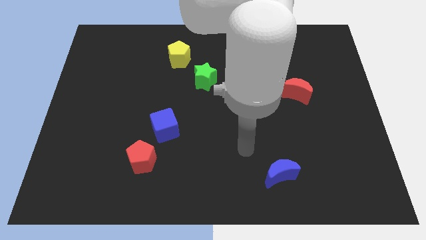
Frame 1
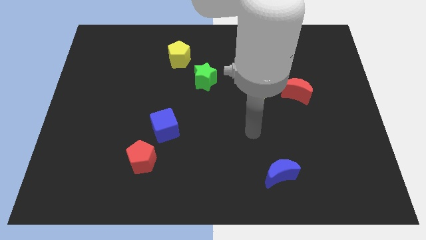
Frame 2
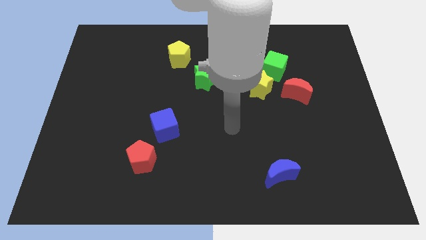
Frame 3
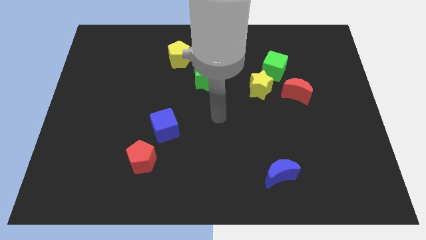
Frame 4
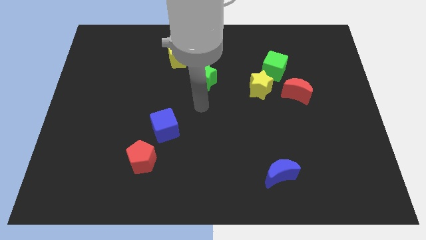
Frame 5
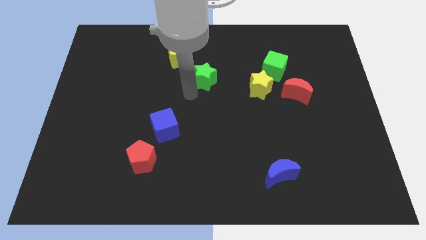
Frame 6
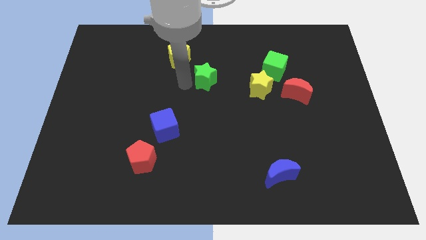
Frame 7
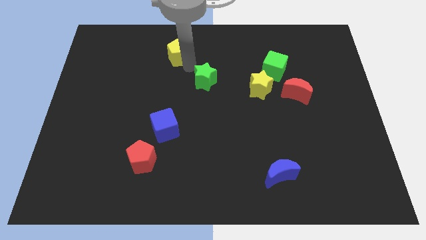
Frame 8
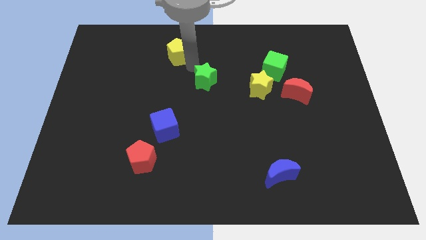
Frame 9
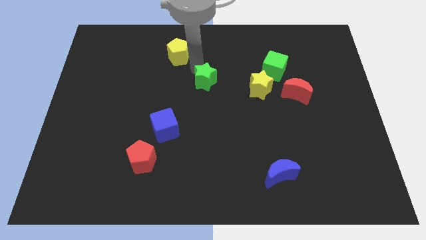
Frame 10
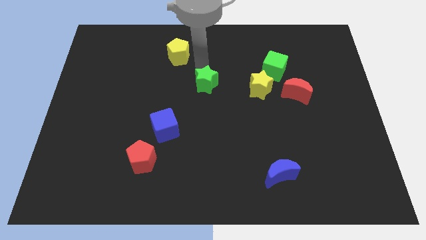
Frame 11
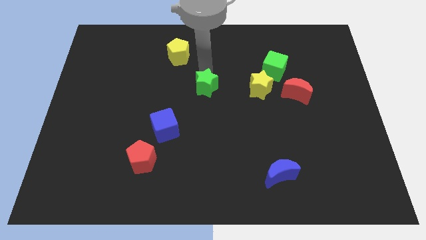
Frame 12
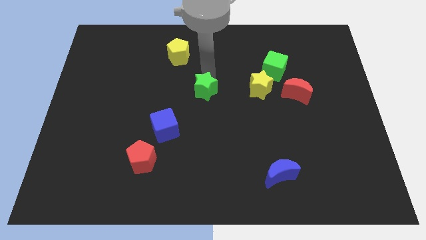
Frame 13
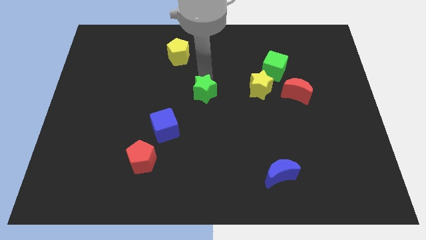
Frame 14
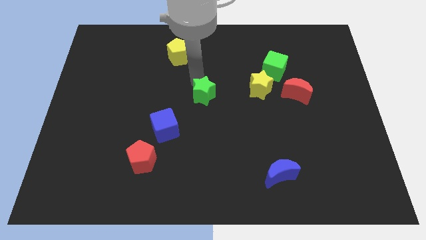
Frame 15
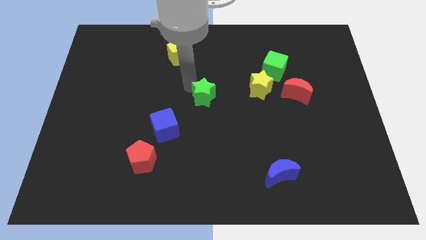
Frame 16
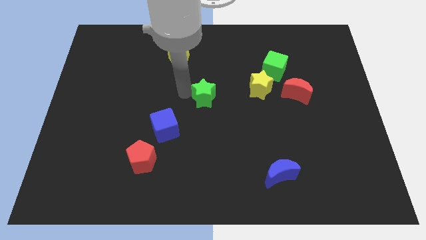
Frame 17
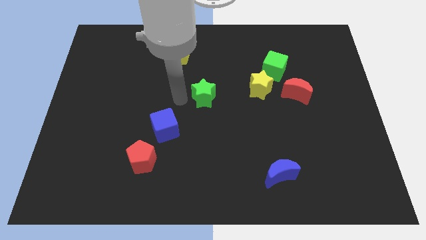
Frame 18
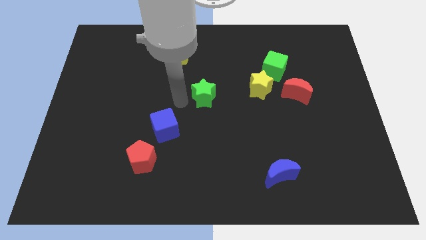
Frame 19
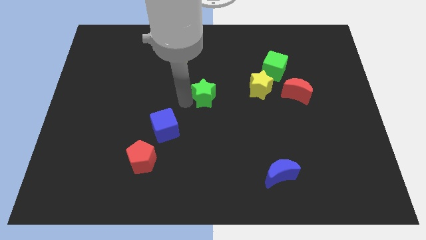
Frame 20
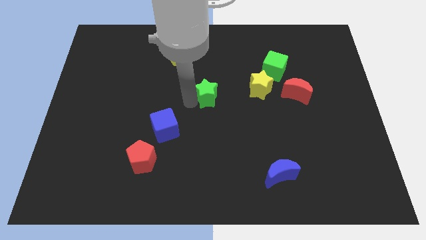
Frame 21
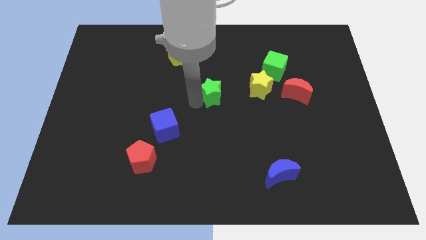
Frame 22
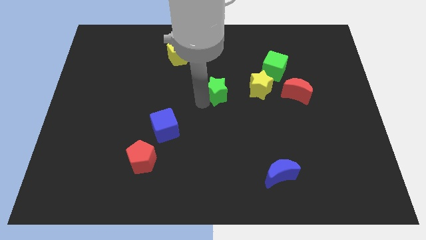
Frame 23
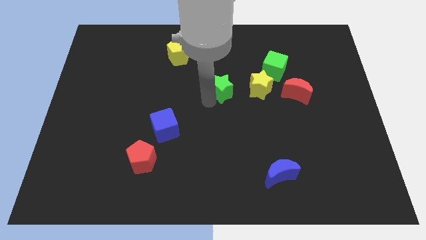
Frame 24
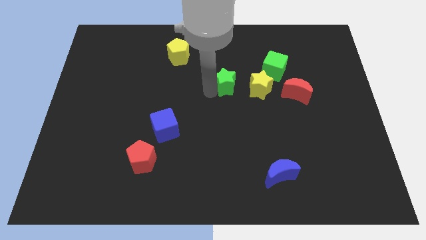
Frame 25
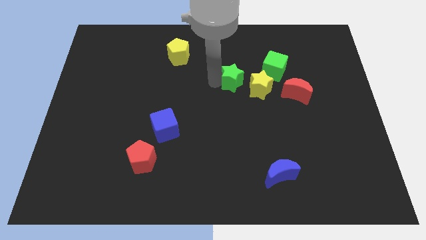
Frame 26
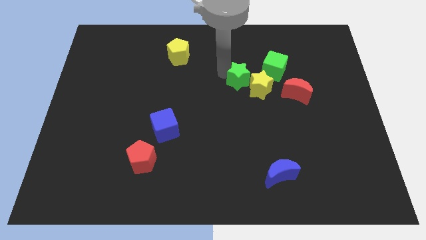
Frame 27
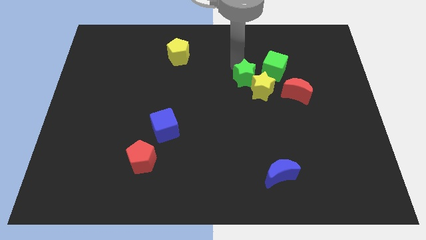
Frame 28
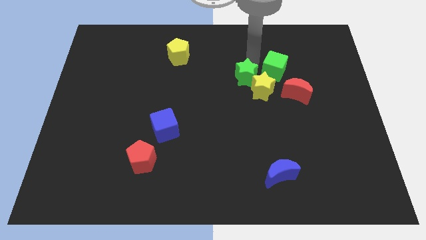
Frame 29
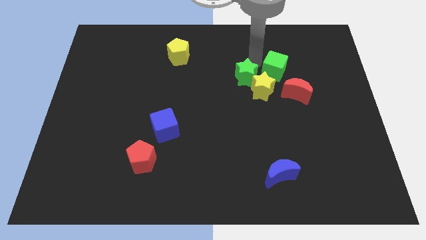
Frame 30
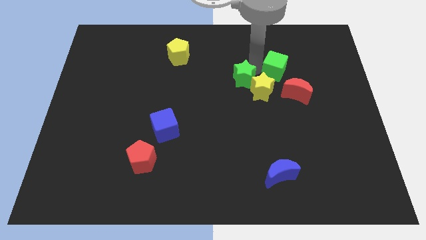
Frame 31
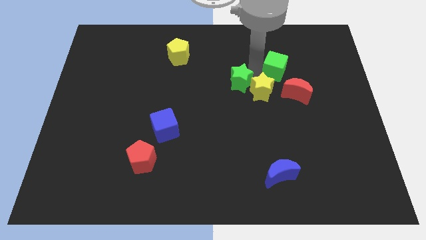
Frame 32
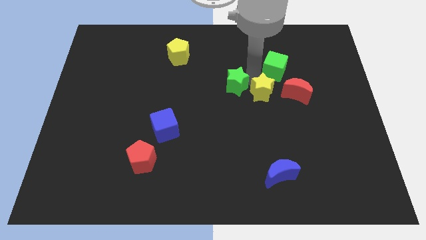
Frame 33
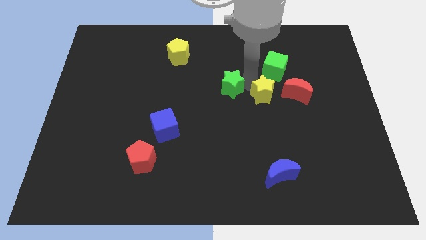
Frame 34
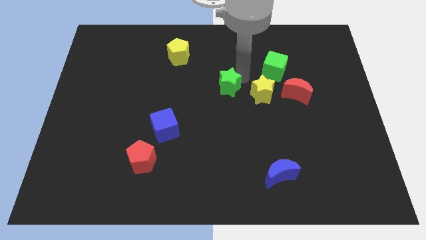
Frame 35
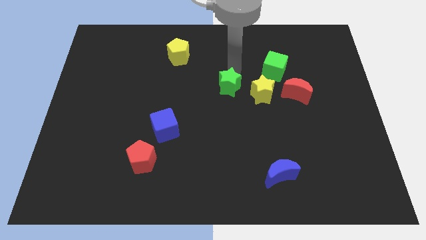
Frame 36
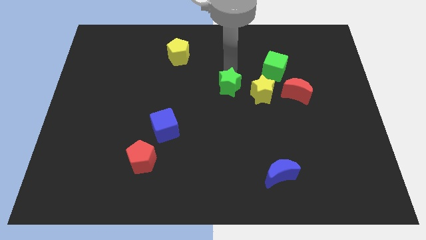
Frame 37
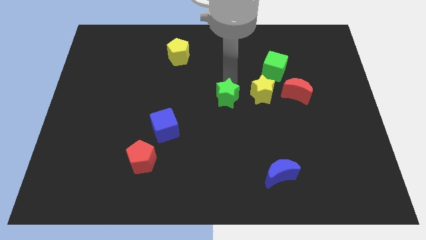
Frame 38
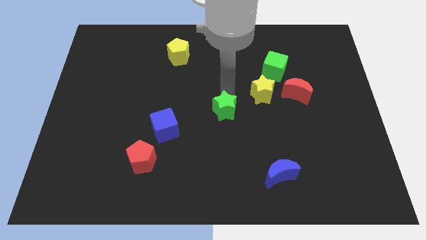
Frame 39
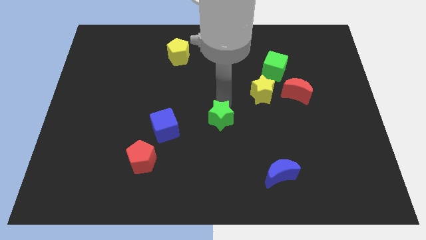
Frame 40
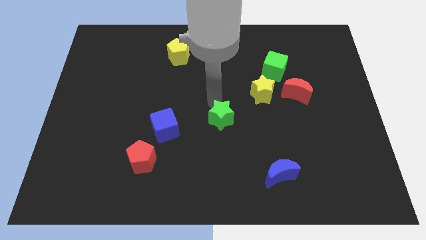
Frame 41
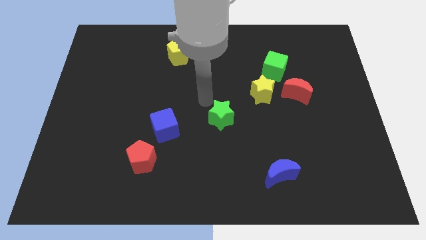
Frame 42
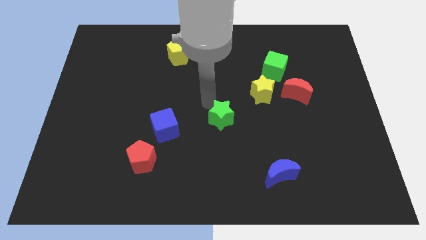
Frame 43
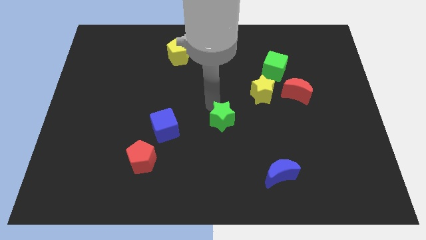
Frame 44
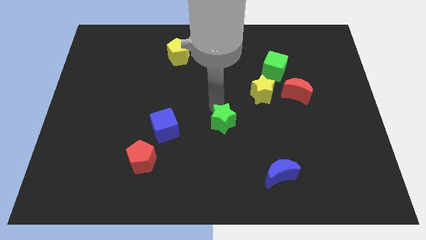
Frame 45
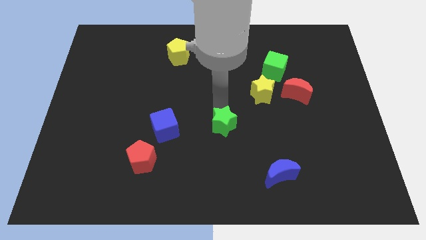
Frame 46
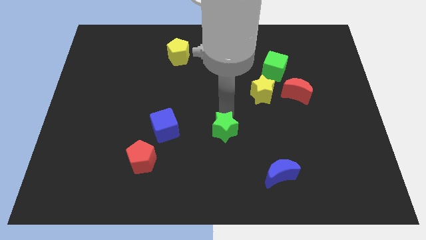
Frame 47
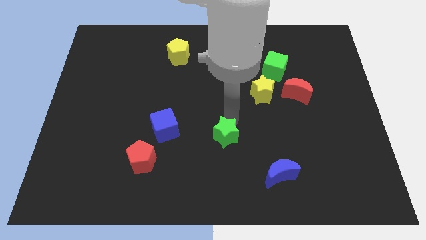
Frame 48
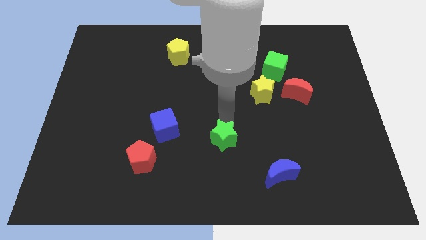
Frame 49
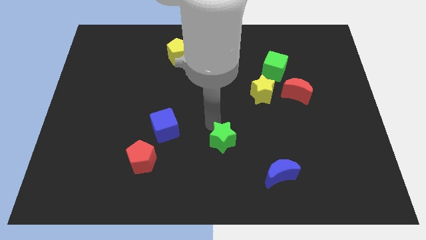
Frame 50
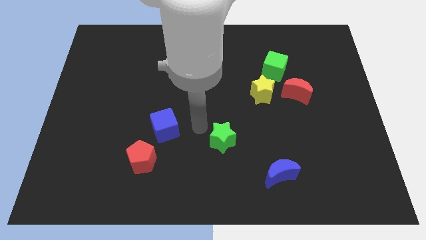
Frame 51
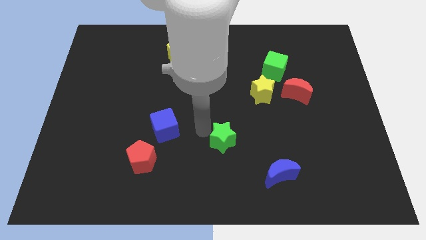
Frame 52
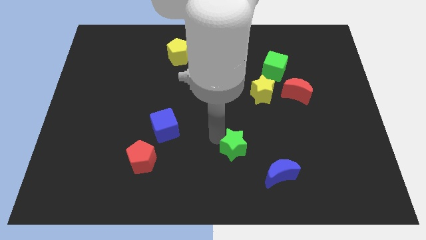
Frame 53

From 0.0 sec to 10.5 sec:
slide the green star to the top left of the blue moon

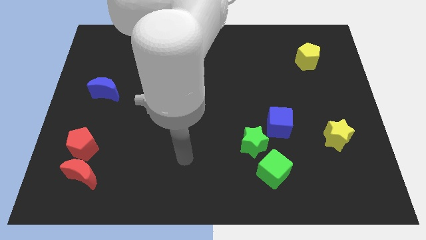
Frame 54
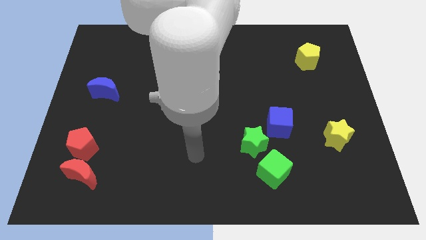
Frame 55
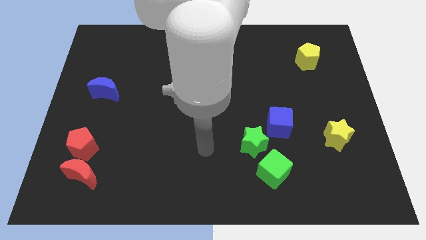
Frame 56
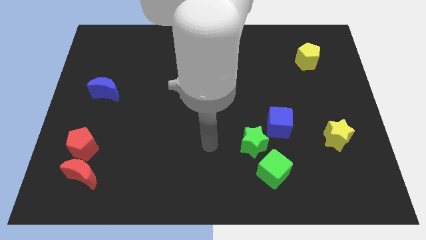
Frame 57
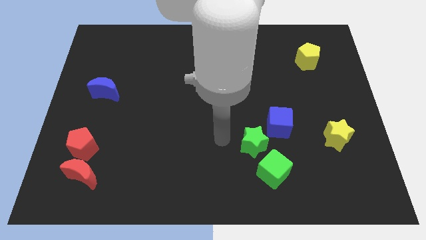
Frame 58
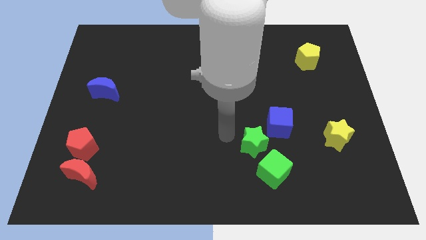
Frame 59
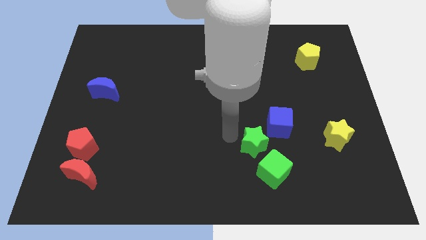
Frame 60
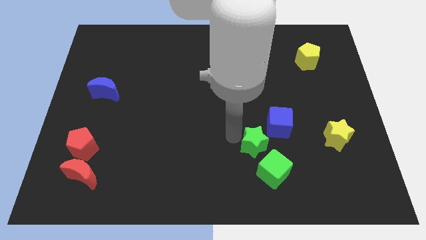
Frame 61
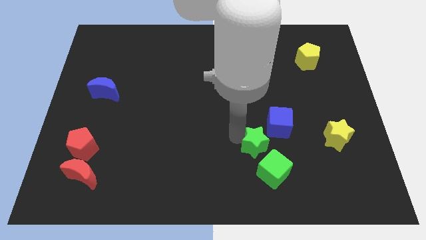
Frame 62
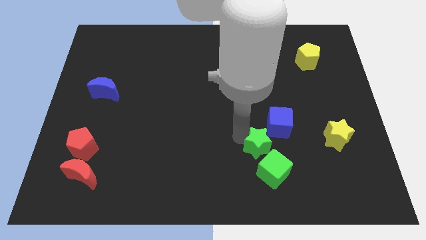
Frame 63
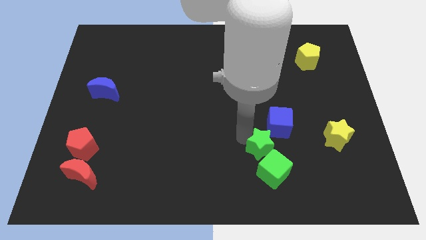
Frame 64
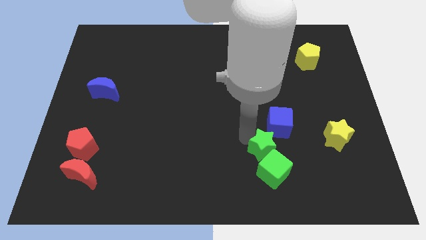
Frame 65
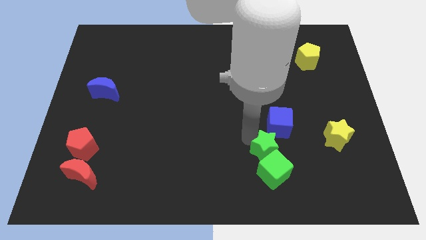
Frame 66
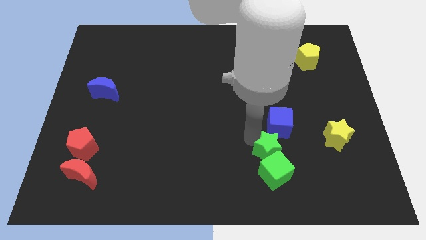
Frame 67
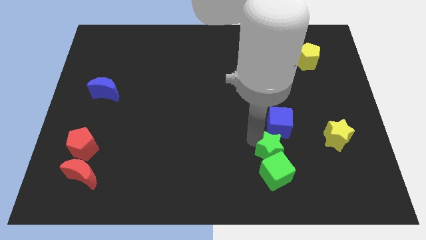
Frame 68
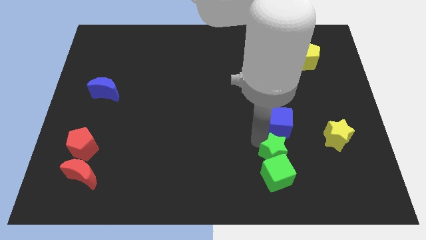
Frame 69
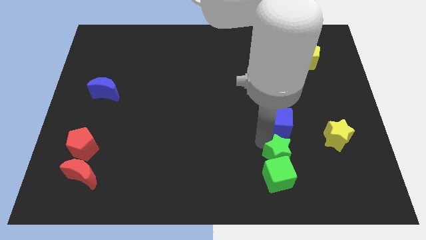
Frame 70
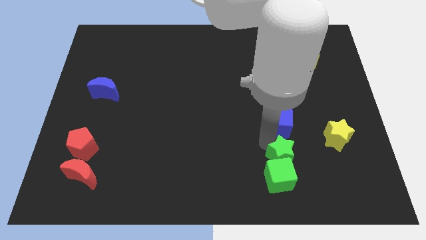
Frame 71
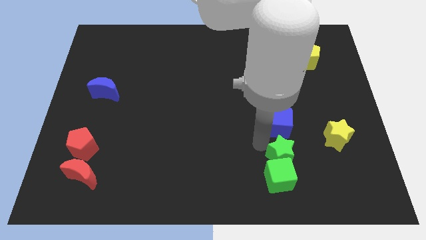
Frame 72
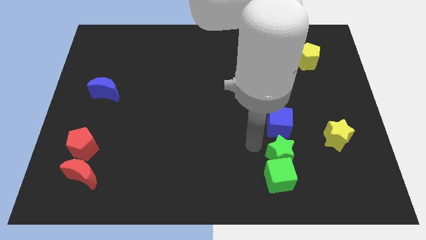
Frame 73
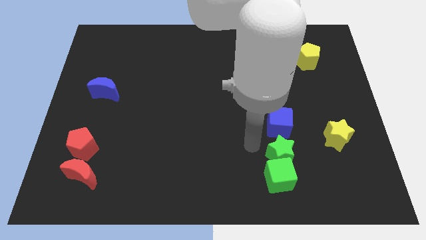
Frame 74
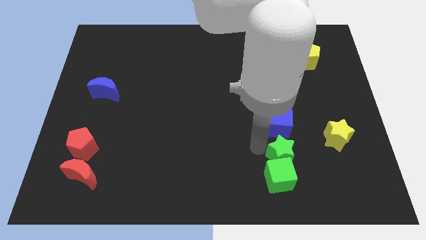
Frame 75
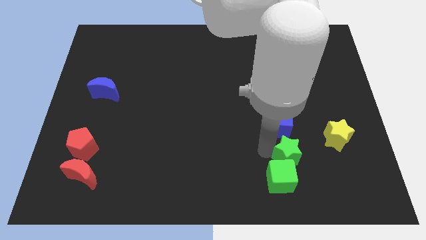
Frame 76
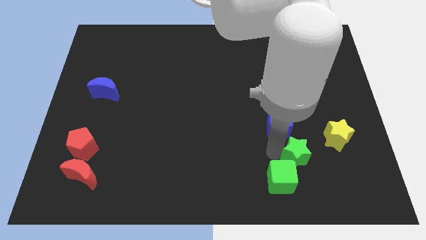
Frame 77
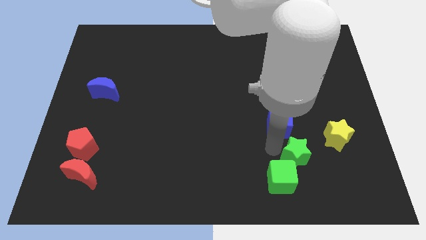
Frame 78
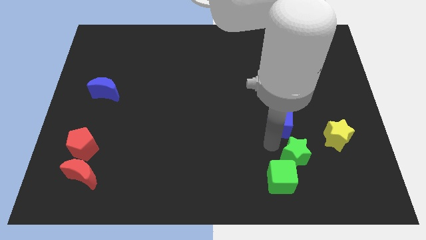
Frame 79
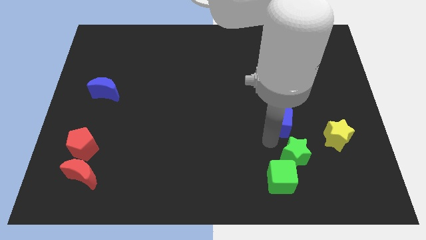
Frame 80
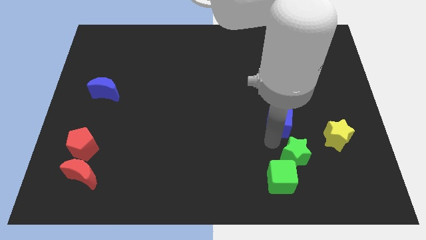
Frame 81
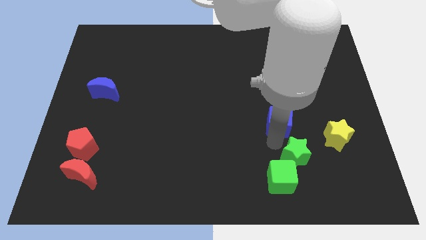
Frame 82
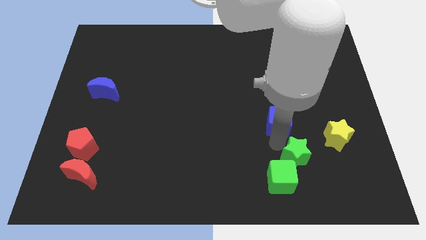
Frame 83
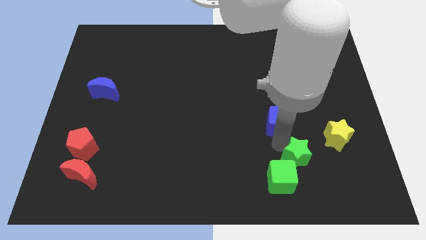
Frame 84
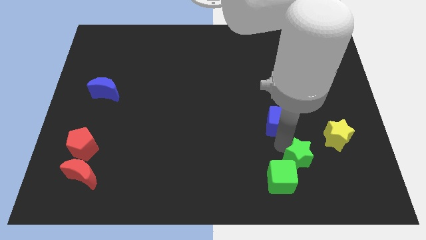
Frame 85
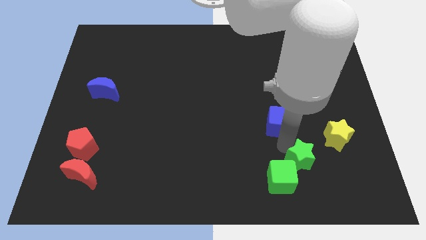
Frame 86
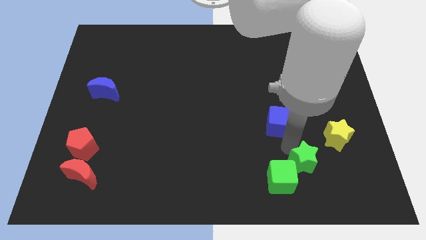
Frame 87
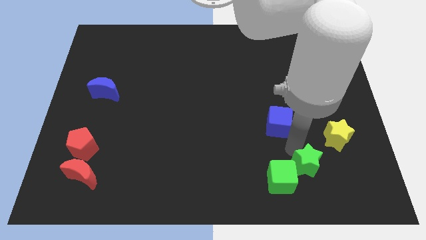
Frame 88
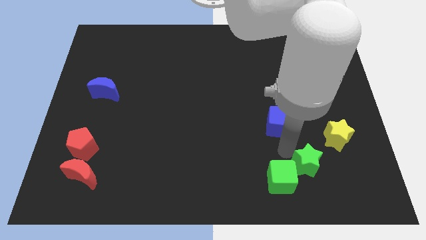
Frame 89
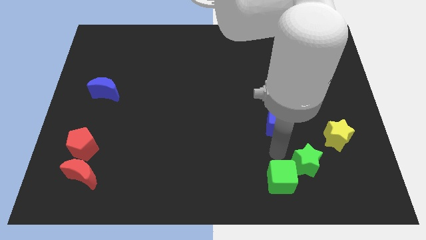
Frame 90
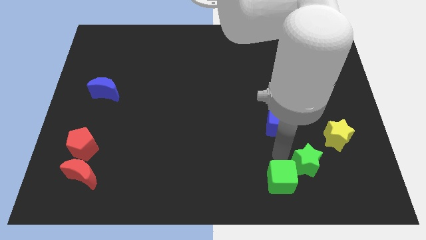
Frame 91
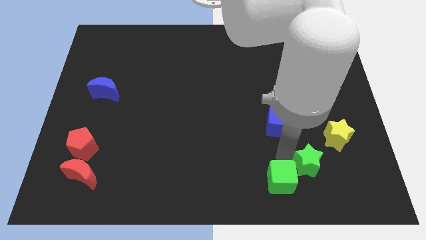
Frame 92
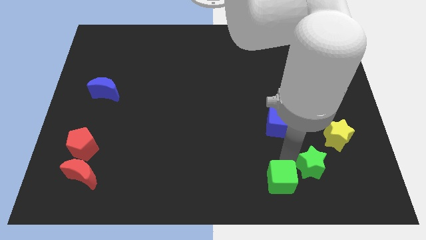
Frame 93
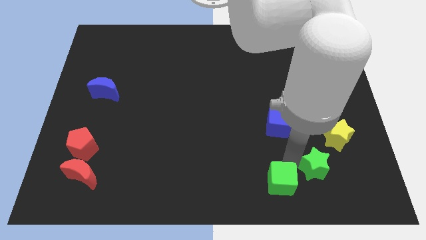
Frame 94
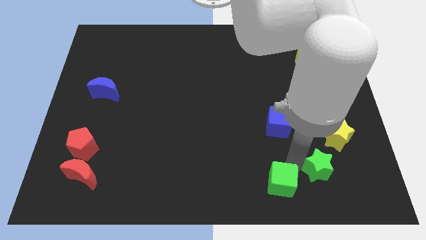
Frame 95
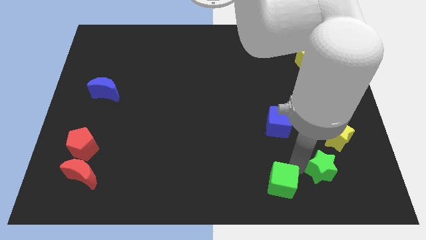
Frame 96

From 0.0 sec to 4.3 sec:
move the green star to the bottom of the yellow star
